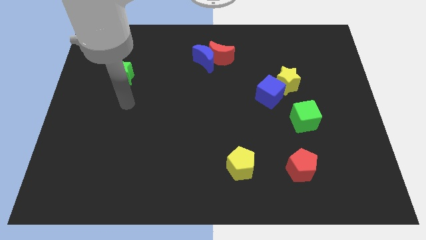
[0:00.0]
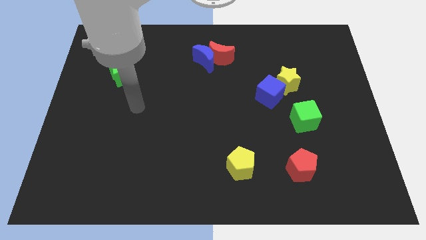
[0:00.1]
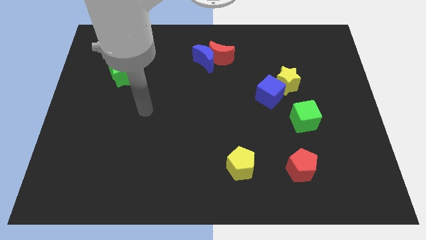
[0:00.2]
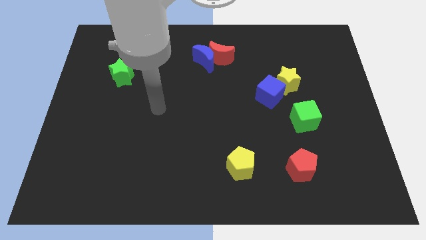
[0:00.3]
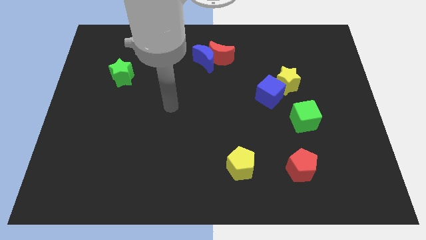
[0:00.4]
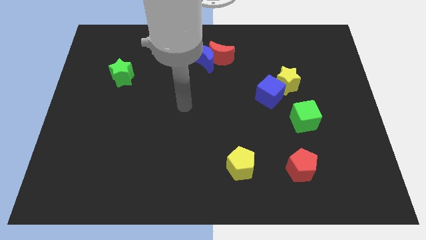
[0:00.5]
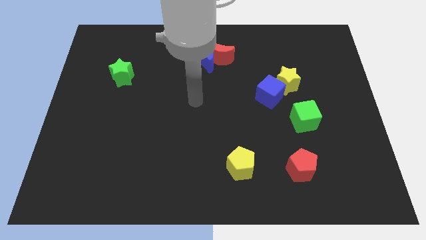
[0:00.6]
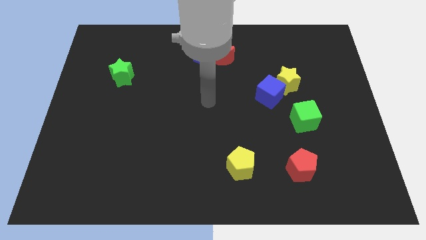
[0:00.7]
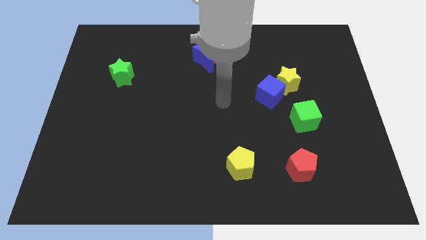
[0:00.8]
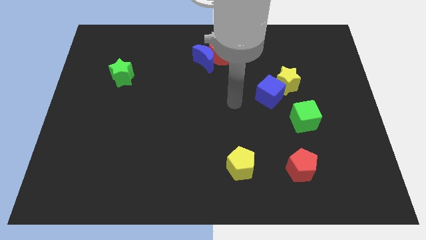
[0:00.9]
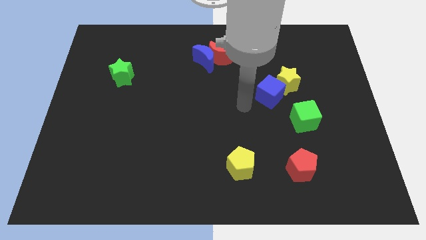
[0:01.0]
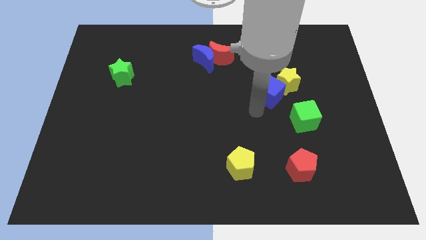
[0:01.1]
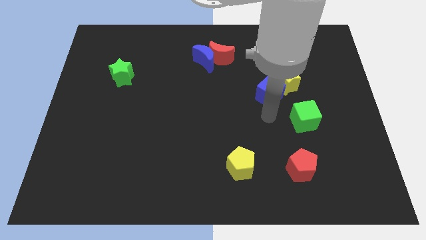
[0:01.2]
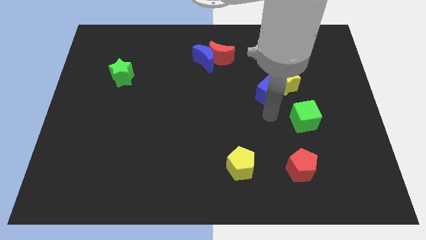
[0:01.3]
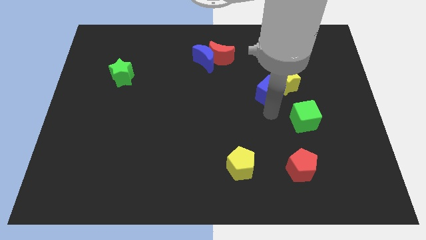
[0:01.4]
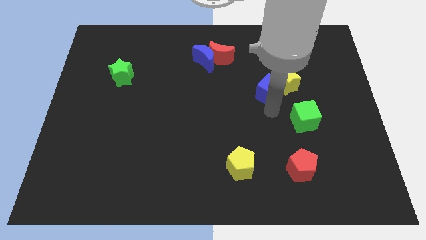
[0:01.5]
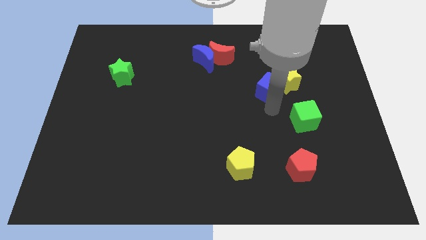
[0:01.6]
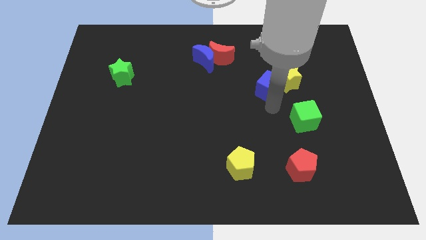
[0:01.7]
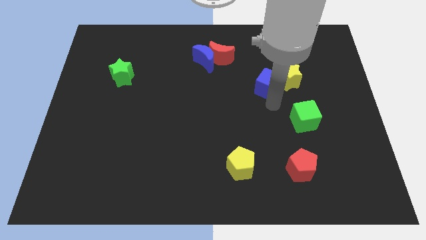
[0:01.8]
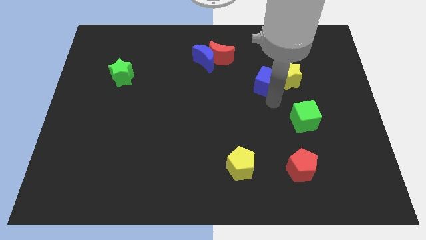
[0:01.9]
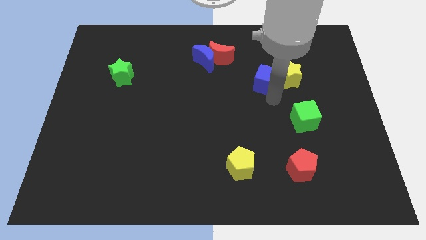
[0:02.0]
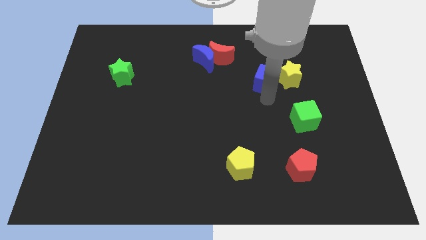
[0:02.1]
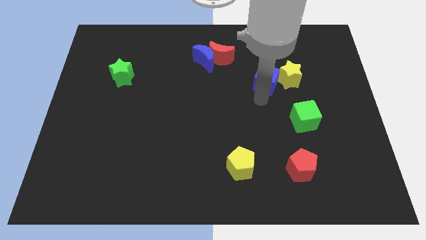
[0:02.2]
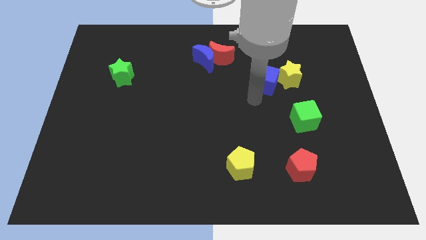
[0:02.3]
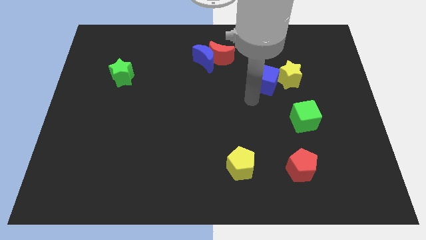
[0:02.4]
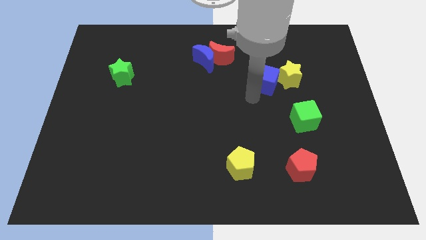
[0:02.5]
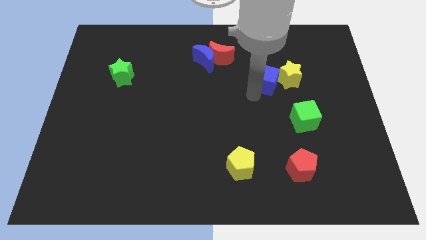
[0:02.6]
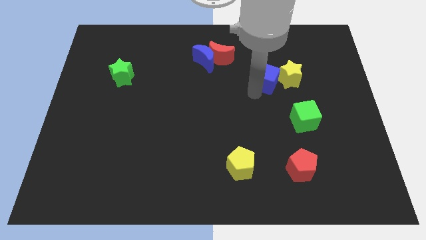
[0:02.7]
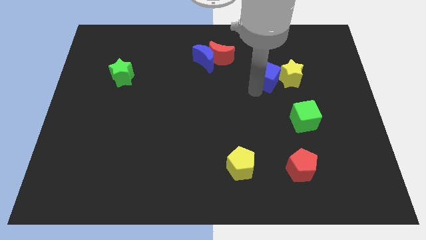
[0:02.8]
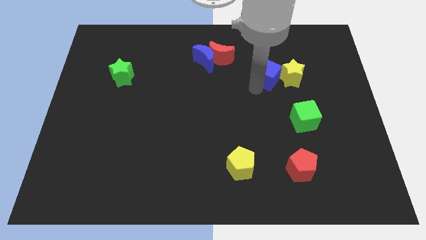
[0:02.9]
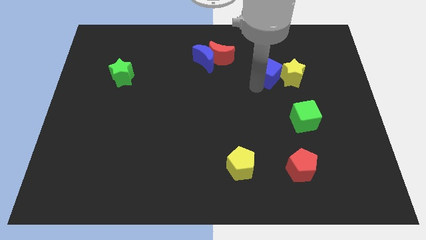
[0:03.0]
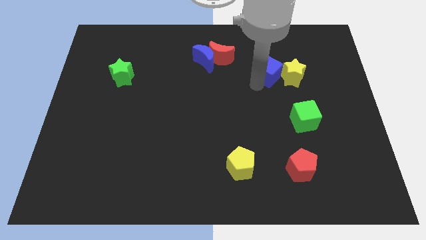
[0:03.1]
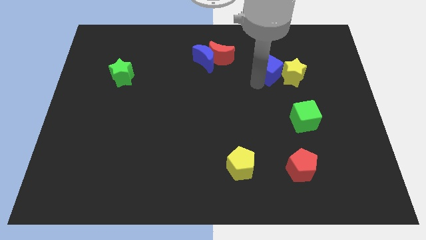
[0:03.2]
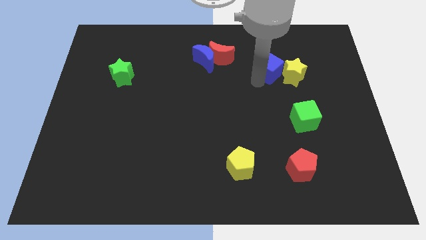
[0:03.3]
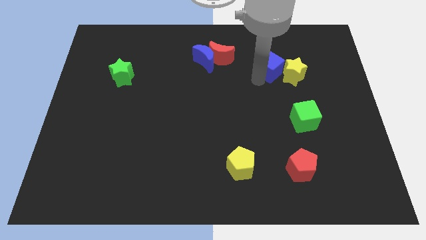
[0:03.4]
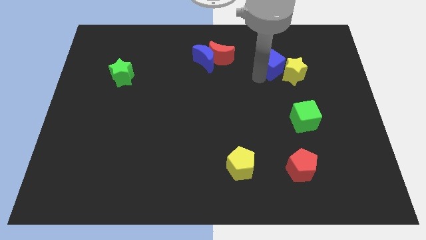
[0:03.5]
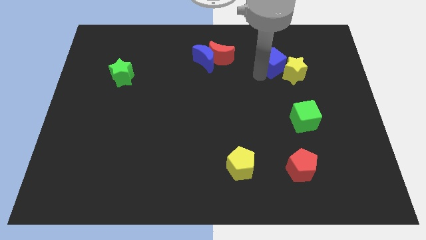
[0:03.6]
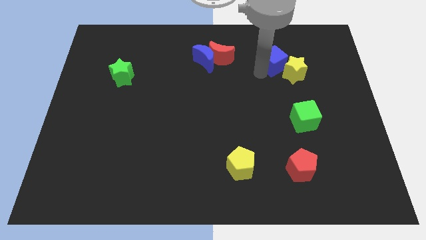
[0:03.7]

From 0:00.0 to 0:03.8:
move the blue cube somewhat up and to the right diagonally

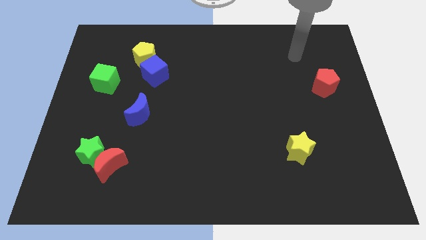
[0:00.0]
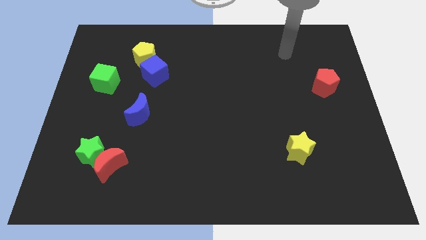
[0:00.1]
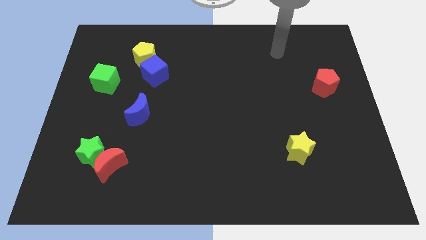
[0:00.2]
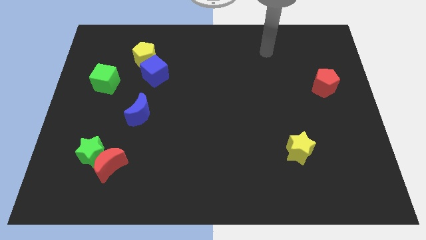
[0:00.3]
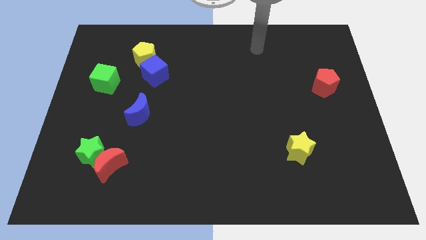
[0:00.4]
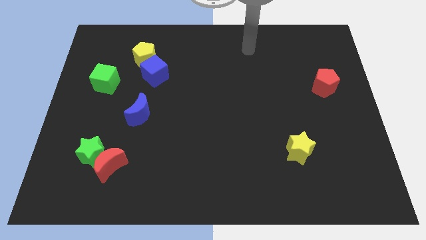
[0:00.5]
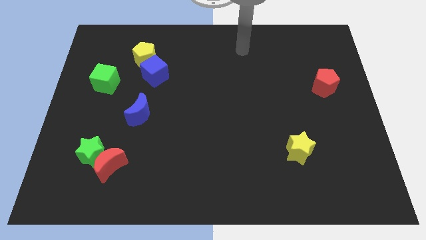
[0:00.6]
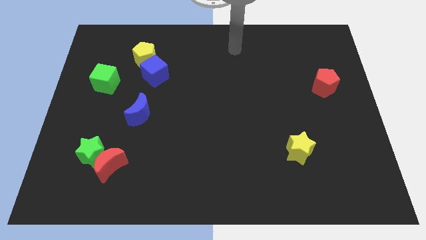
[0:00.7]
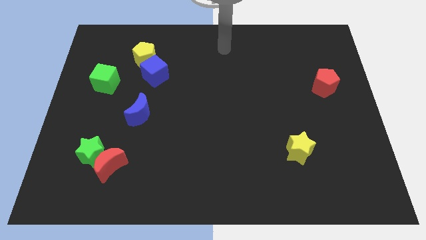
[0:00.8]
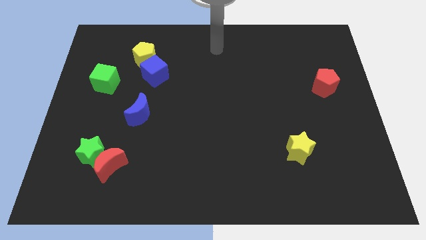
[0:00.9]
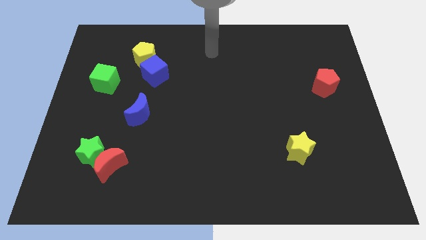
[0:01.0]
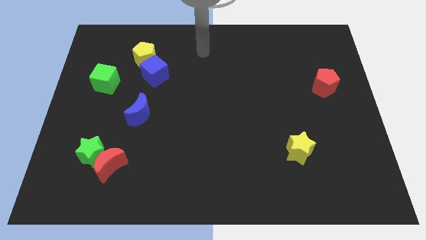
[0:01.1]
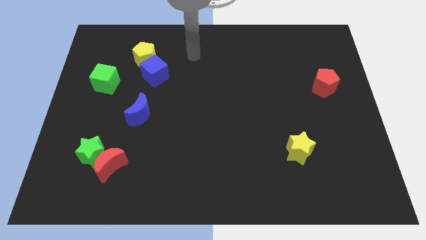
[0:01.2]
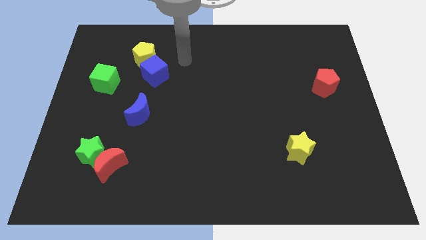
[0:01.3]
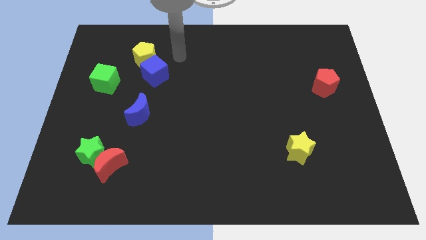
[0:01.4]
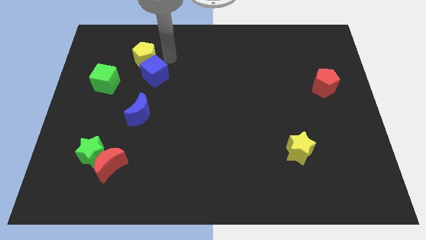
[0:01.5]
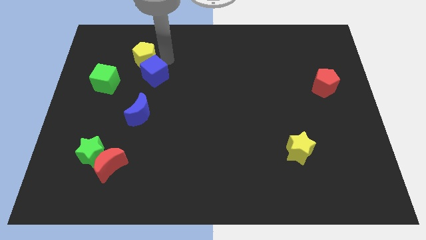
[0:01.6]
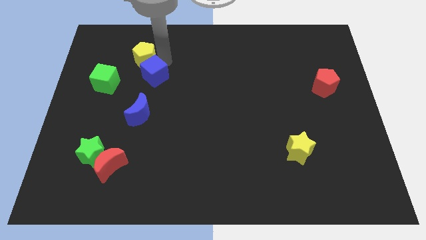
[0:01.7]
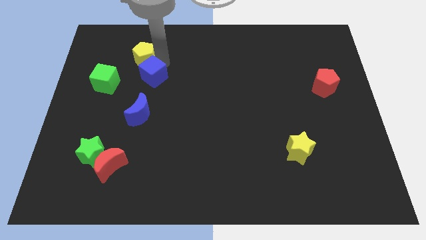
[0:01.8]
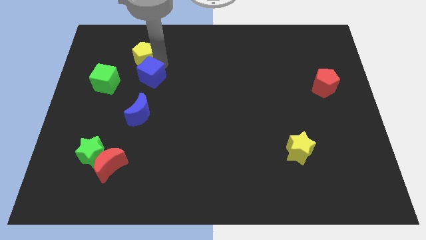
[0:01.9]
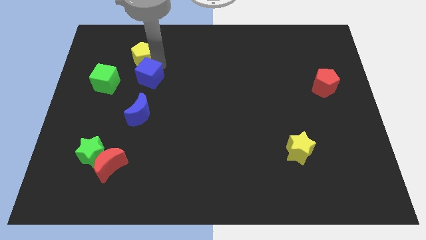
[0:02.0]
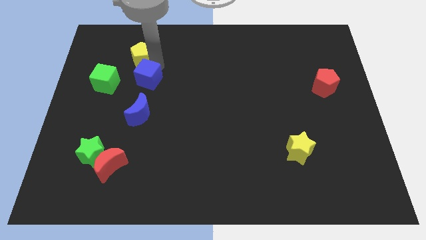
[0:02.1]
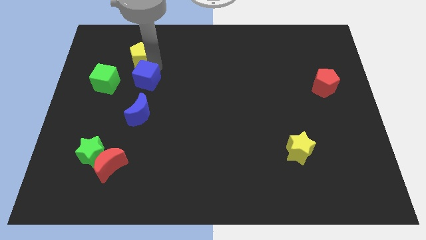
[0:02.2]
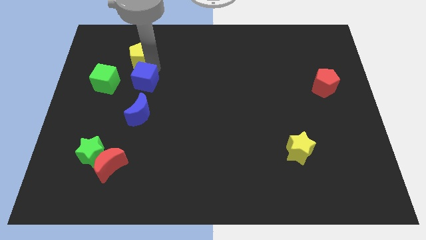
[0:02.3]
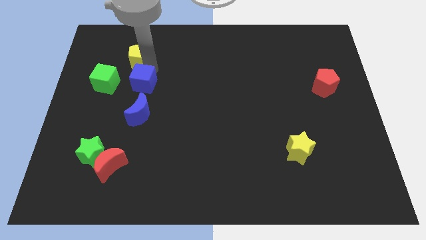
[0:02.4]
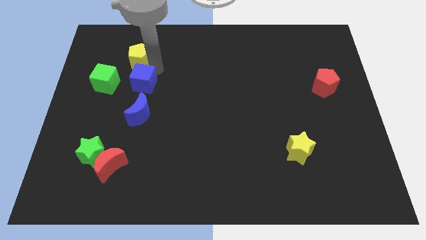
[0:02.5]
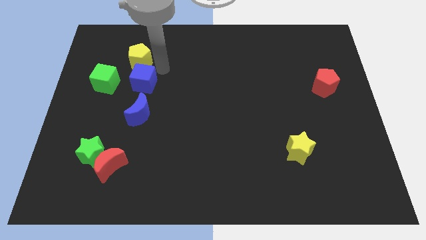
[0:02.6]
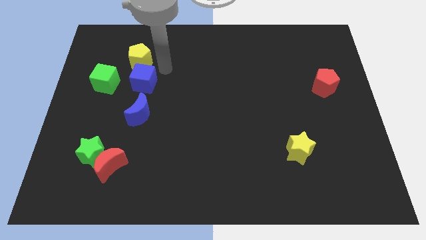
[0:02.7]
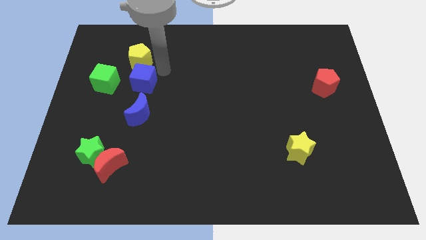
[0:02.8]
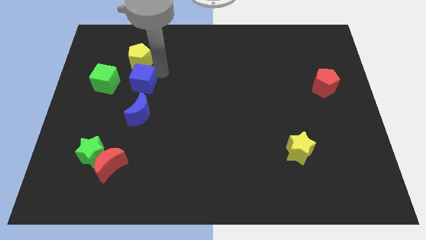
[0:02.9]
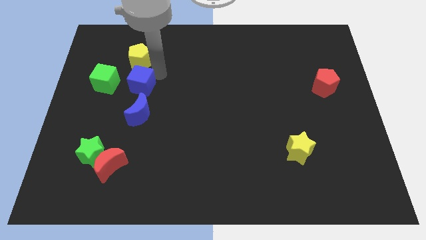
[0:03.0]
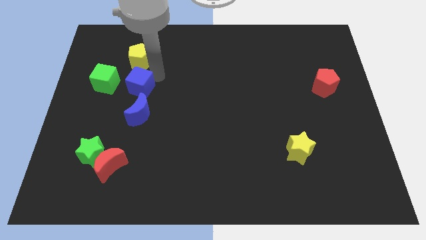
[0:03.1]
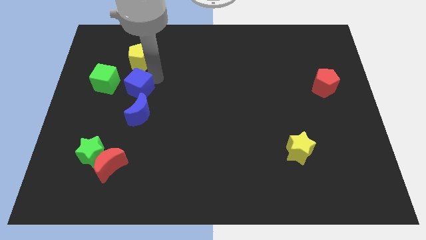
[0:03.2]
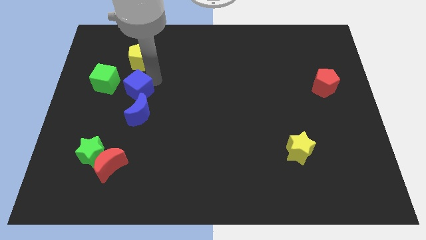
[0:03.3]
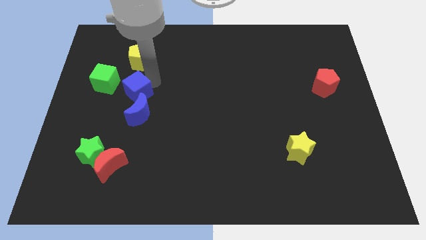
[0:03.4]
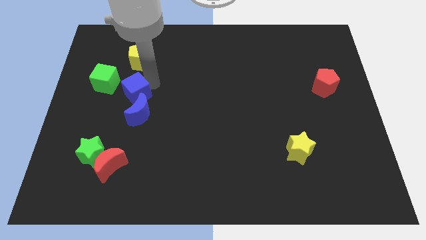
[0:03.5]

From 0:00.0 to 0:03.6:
slide the blue cube downwards and then to the left somewhat

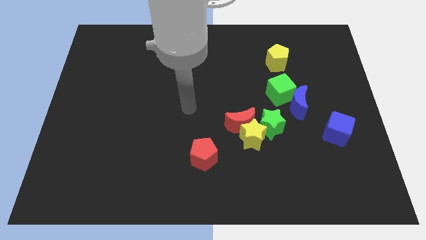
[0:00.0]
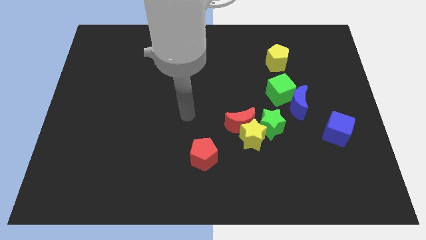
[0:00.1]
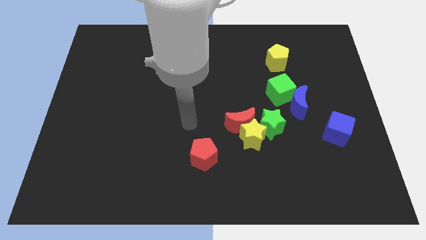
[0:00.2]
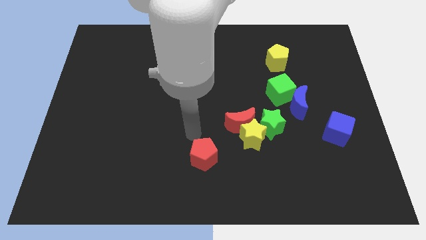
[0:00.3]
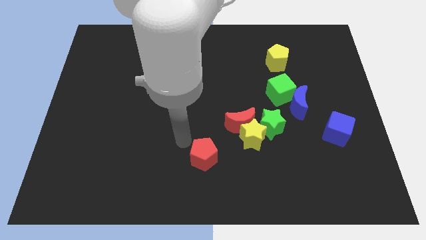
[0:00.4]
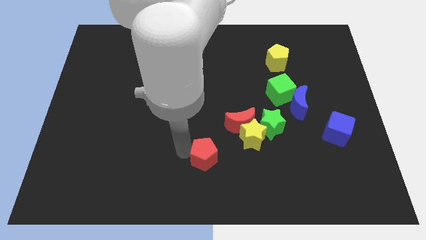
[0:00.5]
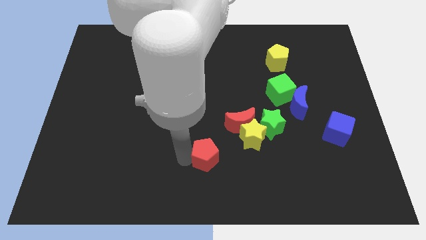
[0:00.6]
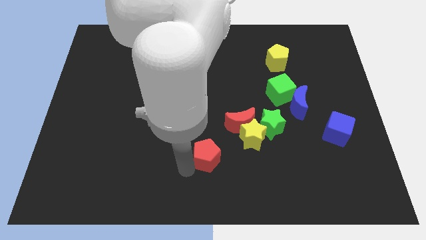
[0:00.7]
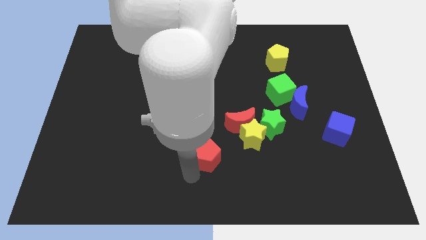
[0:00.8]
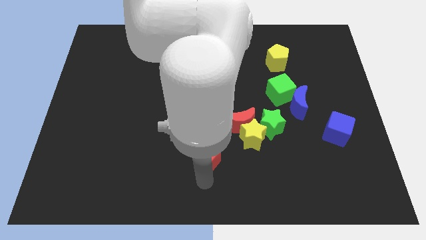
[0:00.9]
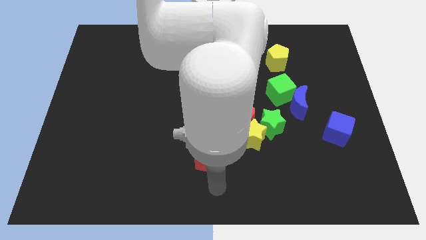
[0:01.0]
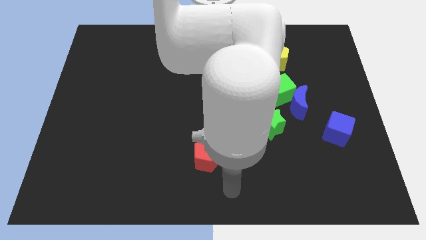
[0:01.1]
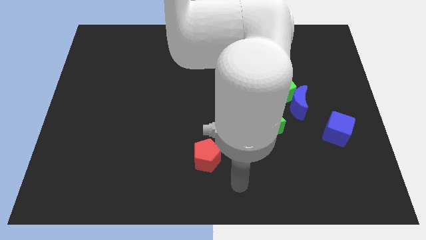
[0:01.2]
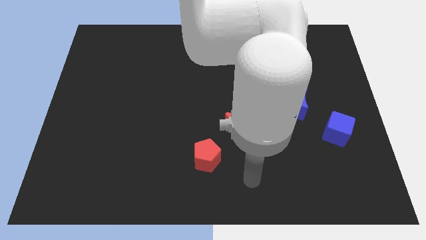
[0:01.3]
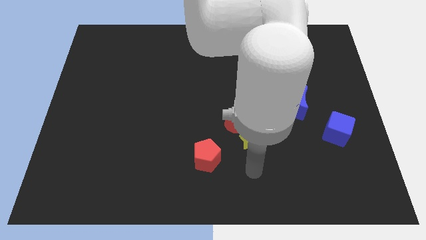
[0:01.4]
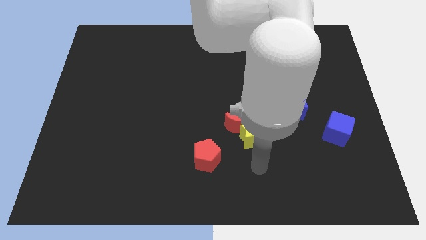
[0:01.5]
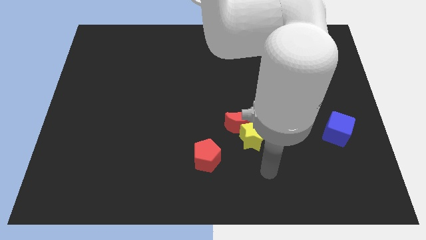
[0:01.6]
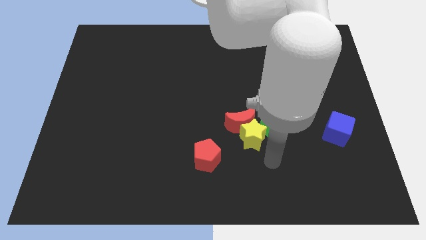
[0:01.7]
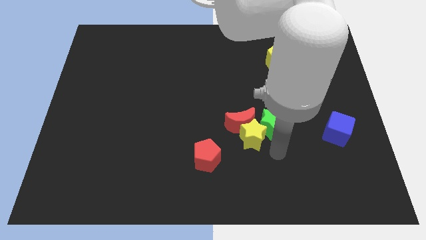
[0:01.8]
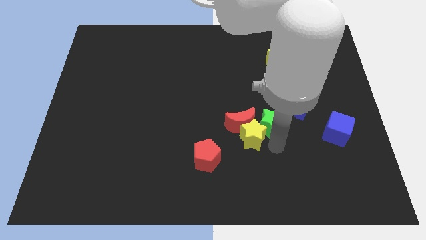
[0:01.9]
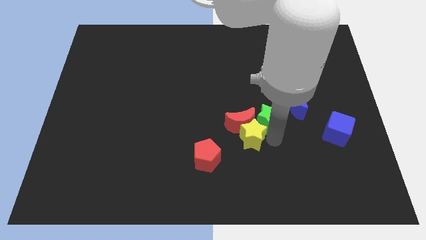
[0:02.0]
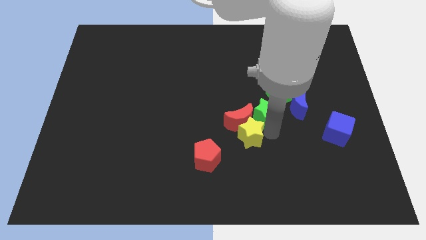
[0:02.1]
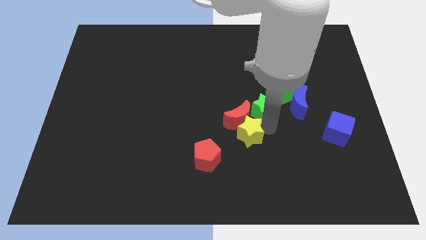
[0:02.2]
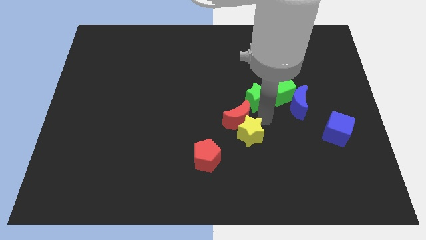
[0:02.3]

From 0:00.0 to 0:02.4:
move the green star a bit upwards
